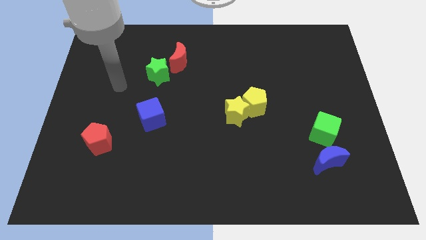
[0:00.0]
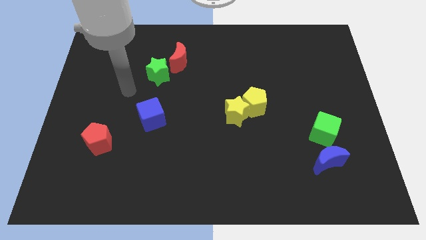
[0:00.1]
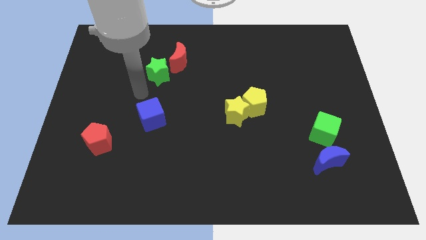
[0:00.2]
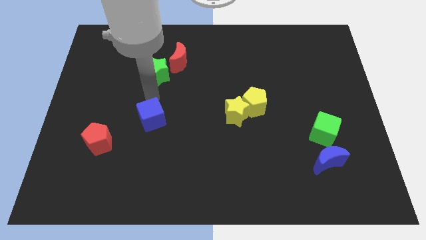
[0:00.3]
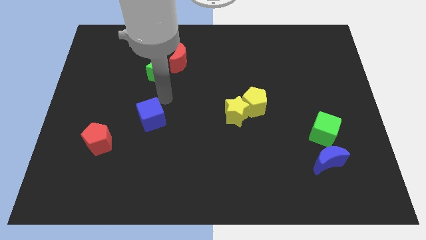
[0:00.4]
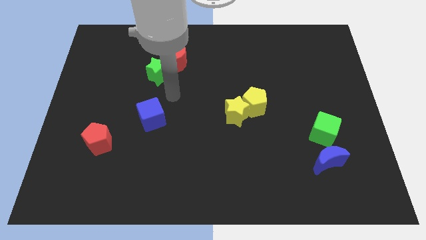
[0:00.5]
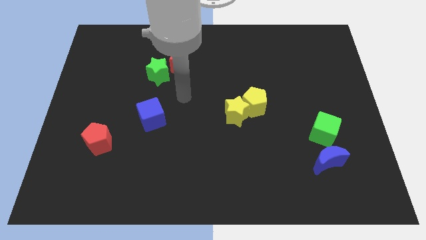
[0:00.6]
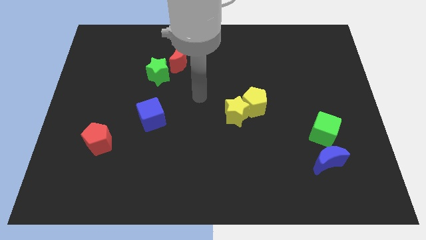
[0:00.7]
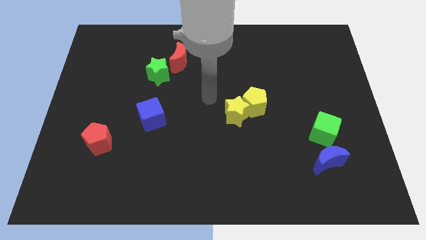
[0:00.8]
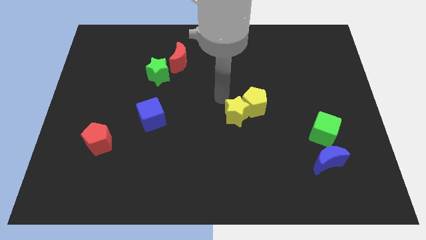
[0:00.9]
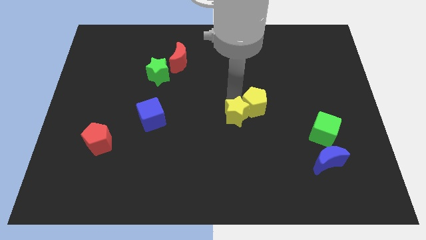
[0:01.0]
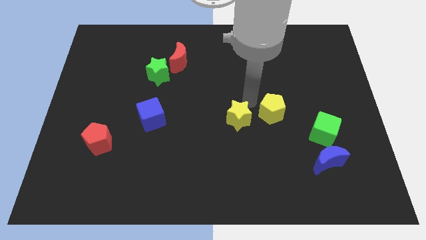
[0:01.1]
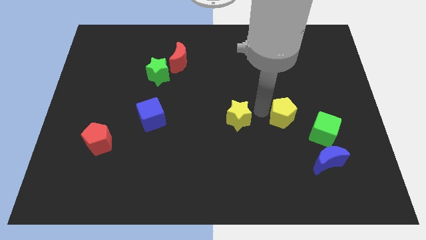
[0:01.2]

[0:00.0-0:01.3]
pull the yellow star apart from the yellow pentagon

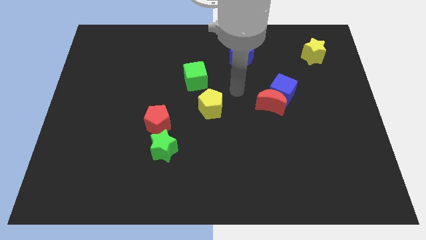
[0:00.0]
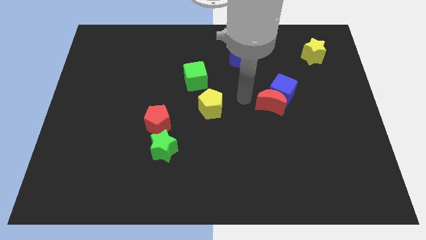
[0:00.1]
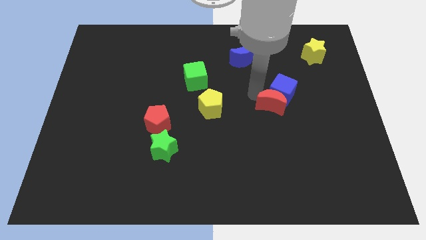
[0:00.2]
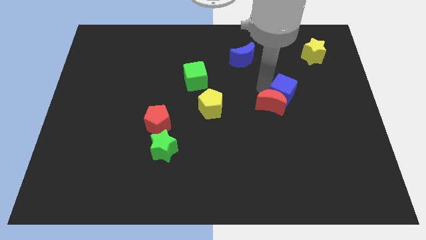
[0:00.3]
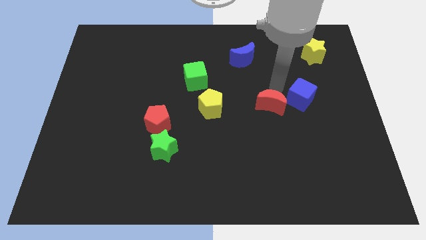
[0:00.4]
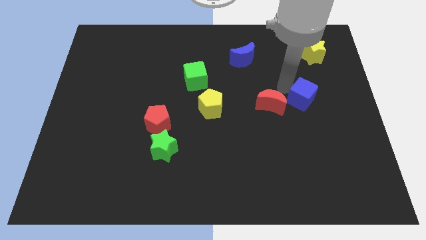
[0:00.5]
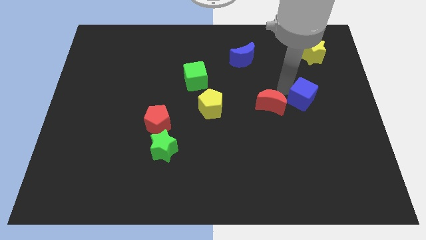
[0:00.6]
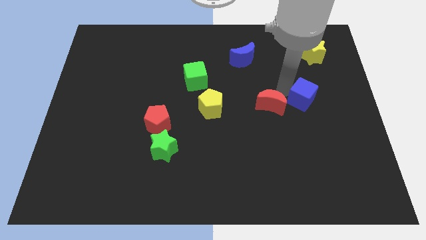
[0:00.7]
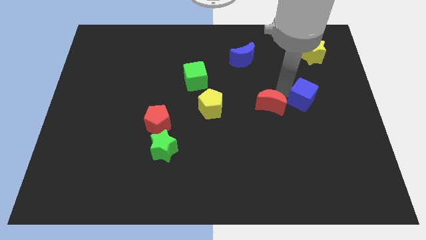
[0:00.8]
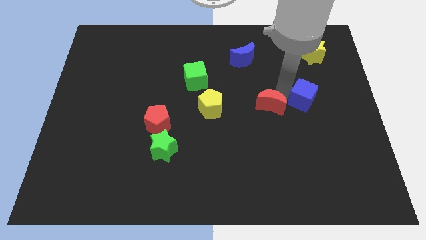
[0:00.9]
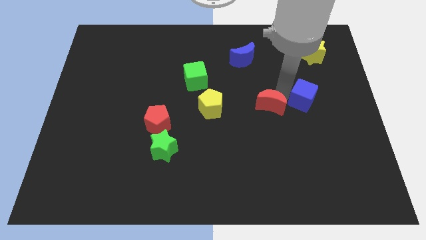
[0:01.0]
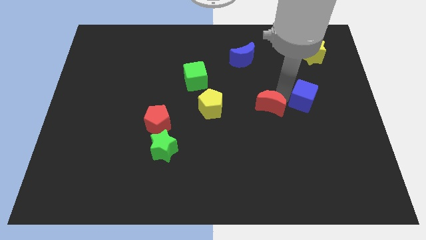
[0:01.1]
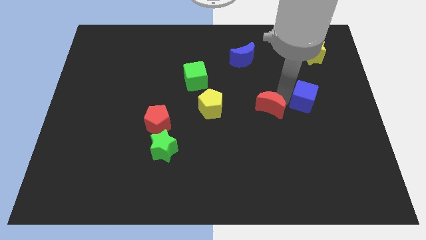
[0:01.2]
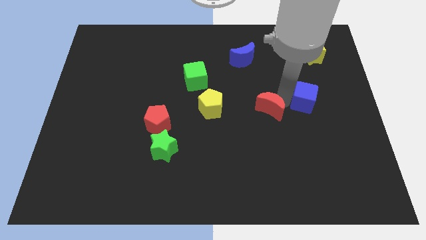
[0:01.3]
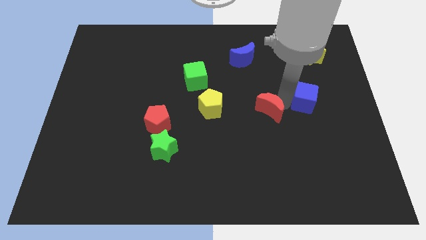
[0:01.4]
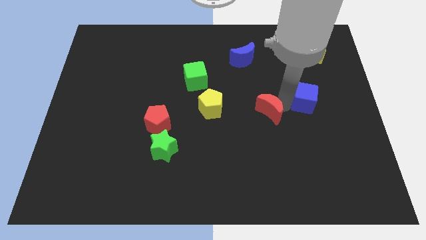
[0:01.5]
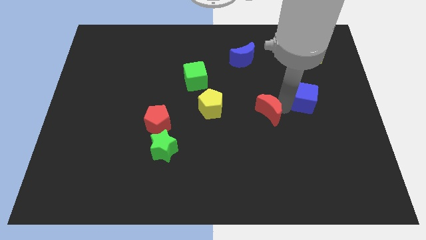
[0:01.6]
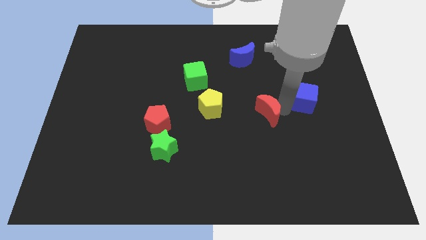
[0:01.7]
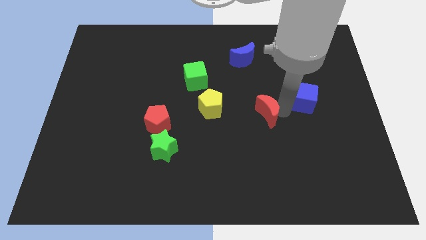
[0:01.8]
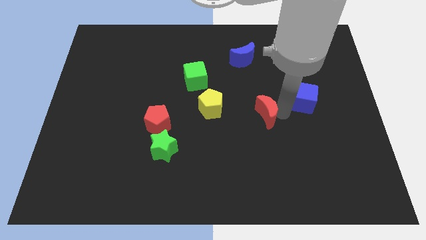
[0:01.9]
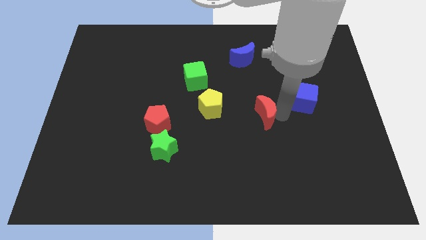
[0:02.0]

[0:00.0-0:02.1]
separate the red moon from the blue cube

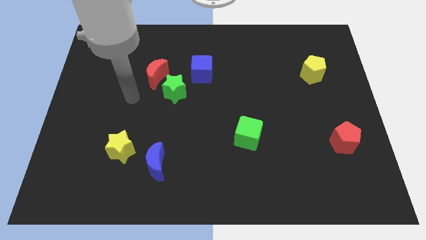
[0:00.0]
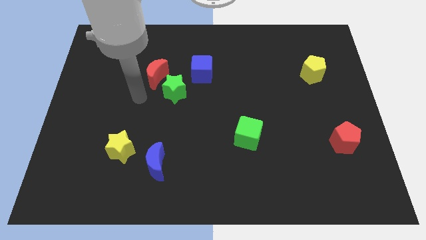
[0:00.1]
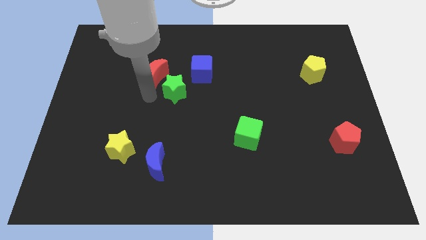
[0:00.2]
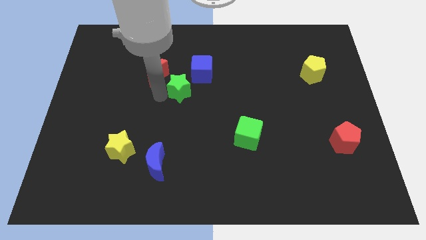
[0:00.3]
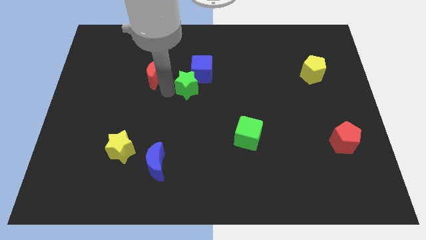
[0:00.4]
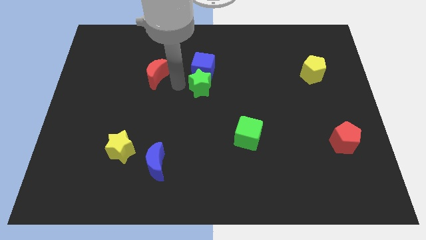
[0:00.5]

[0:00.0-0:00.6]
move the red moon away from the green star

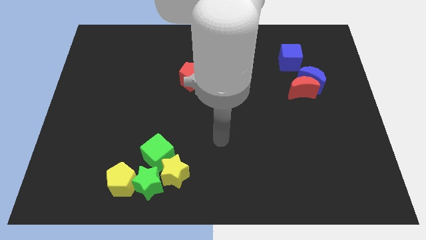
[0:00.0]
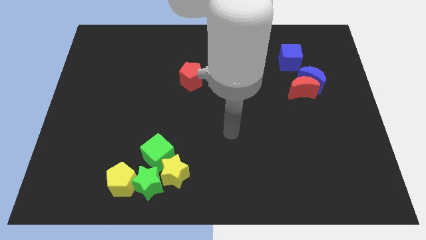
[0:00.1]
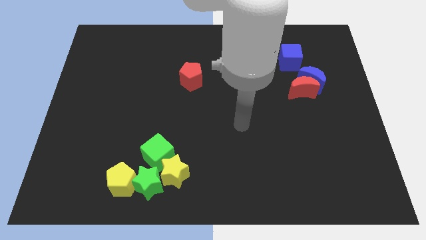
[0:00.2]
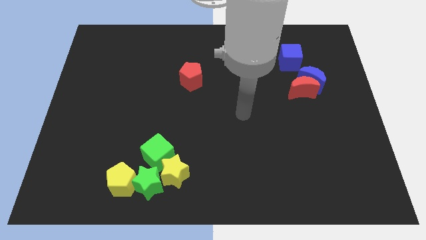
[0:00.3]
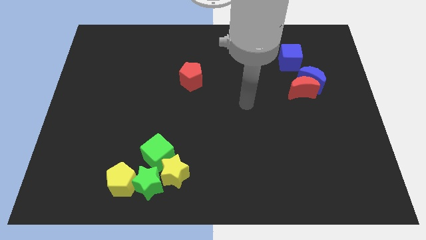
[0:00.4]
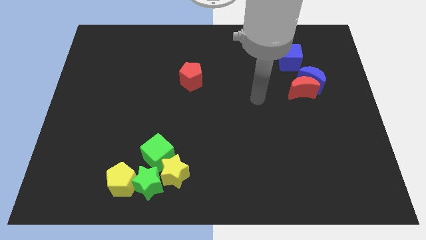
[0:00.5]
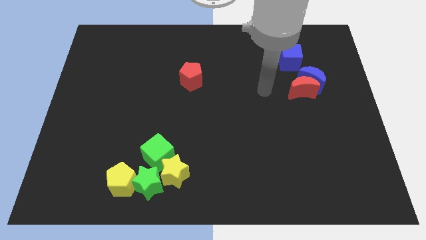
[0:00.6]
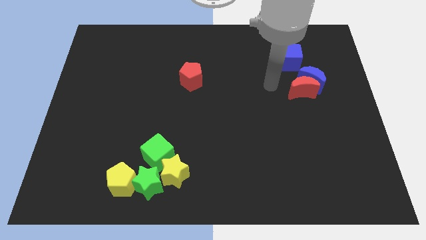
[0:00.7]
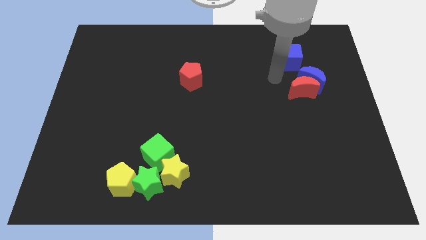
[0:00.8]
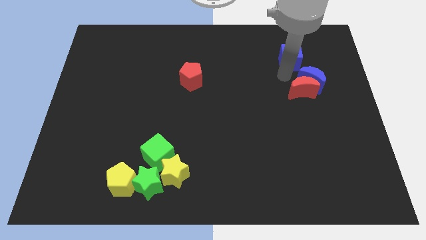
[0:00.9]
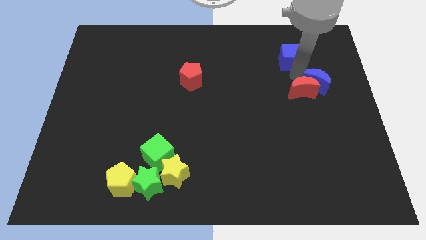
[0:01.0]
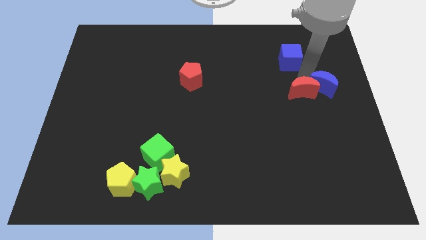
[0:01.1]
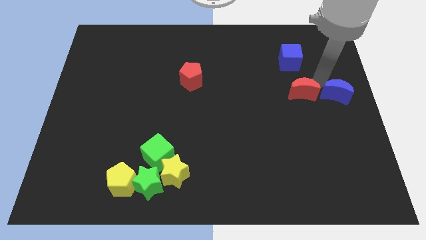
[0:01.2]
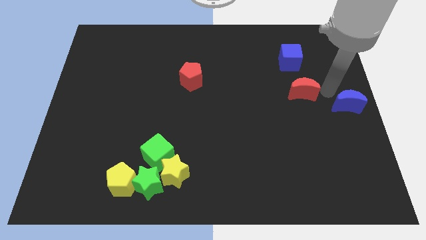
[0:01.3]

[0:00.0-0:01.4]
separate the red moon from the blue moon

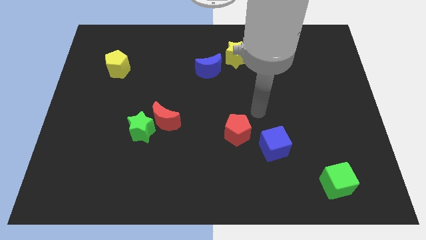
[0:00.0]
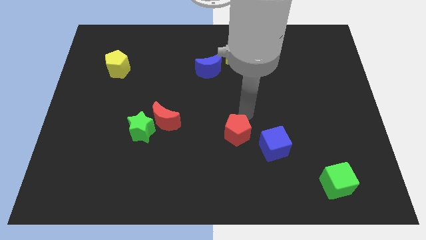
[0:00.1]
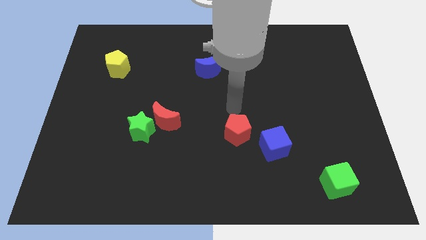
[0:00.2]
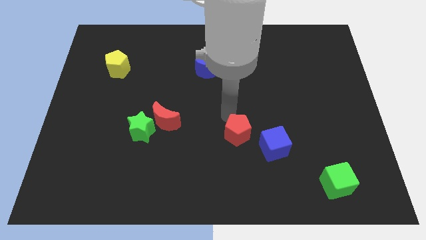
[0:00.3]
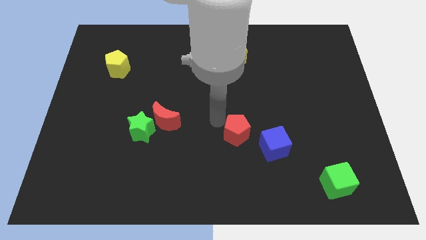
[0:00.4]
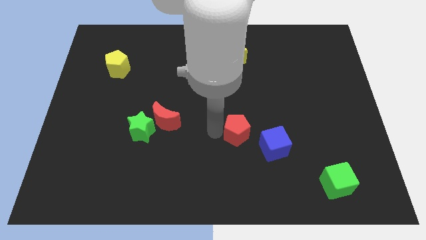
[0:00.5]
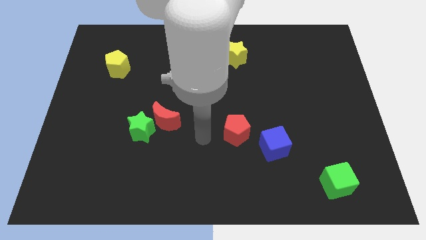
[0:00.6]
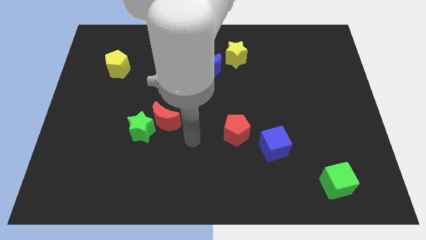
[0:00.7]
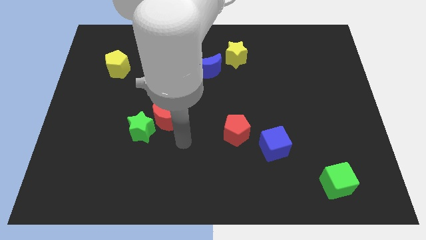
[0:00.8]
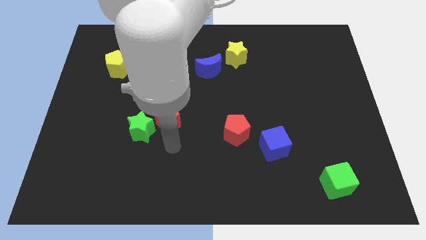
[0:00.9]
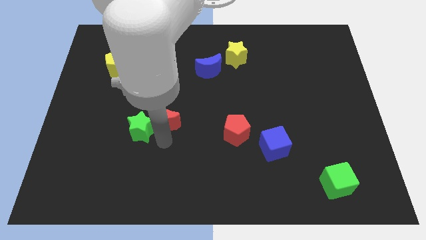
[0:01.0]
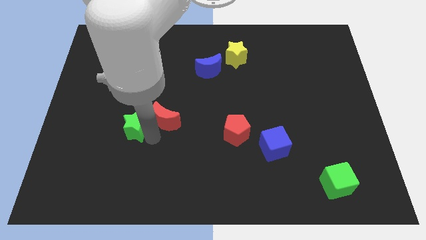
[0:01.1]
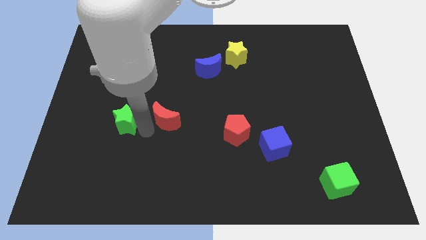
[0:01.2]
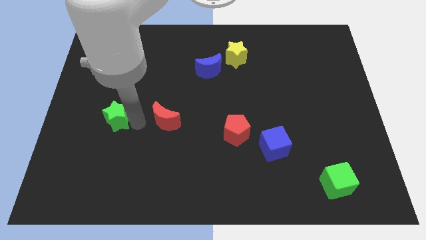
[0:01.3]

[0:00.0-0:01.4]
separate the red moon from the green star

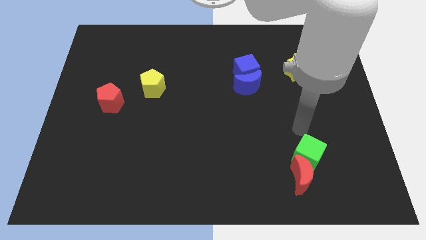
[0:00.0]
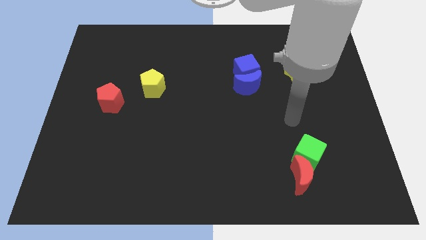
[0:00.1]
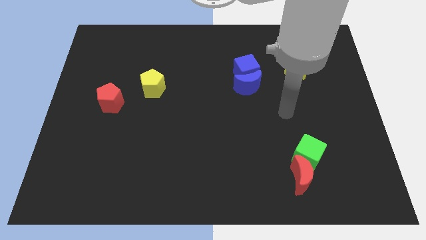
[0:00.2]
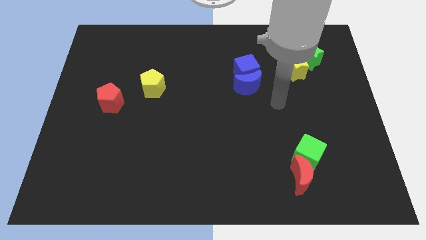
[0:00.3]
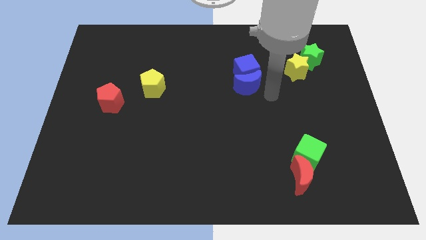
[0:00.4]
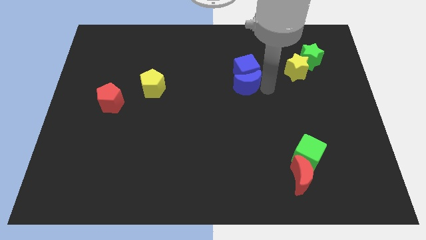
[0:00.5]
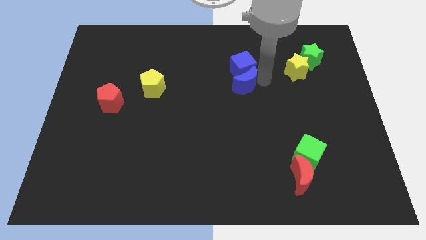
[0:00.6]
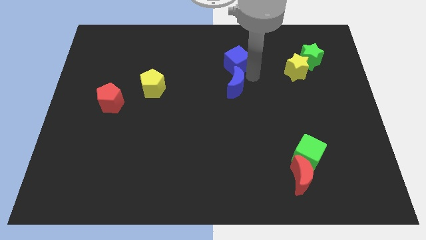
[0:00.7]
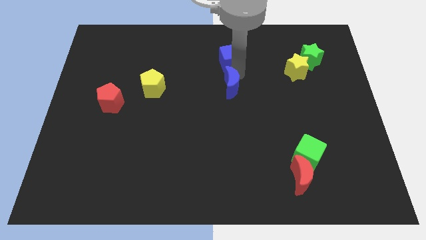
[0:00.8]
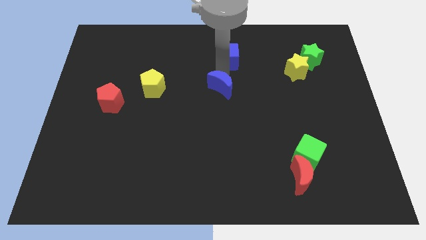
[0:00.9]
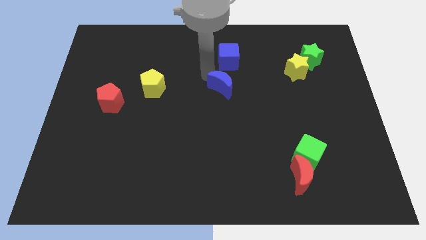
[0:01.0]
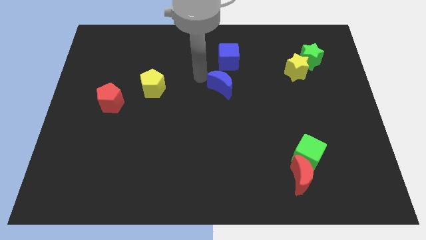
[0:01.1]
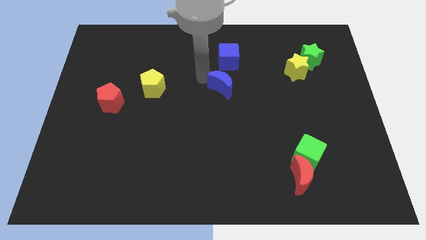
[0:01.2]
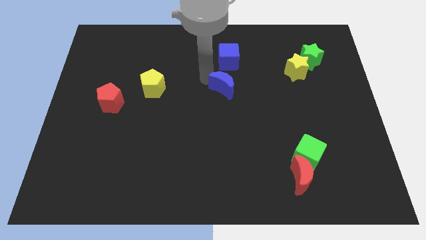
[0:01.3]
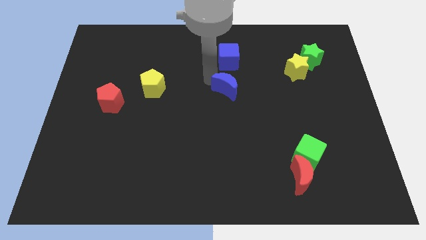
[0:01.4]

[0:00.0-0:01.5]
separate the blue moon from the blue cube

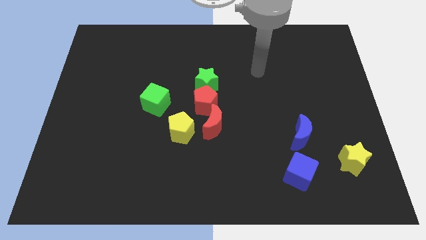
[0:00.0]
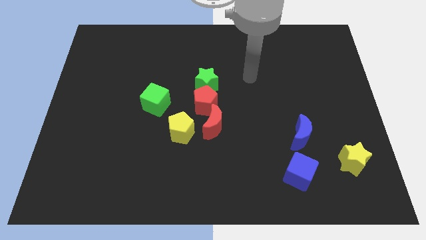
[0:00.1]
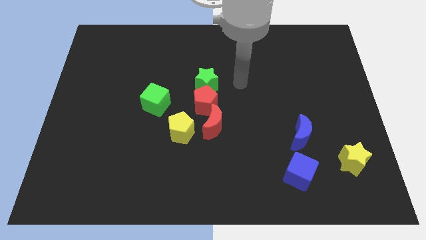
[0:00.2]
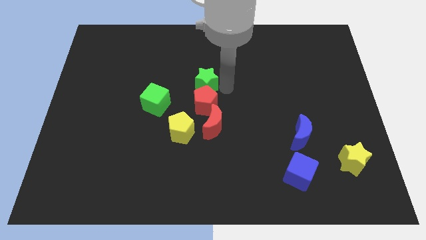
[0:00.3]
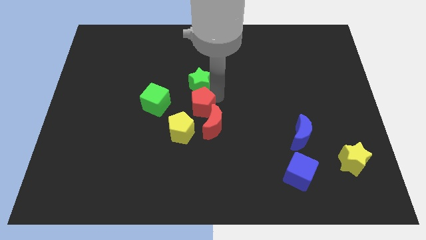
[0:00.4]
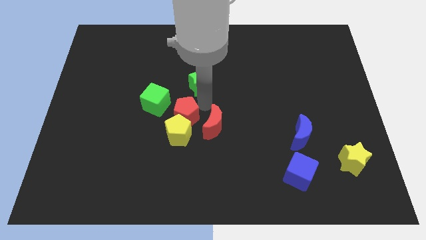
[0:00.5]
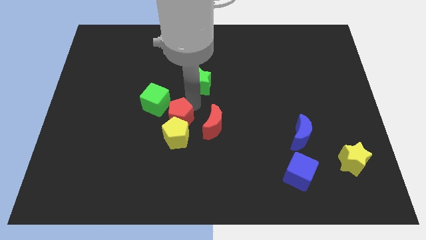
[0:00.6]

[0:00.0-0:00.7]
pull the green star apart from the red pentagon

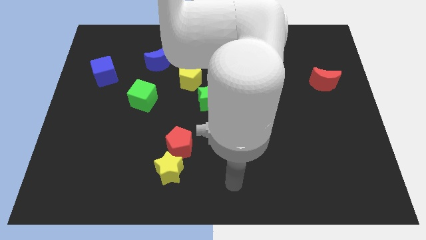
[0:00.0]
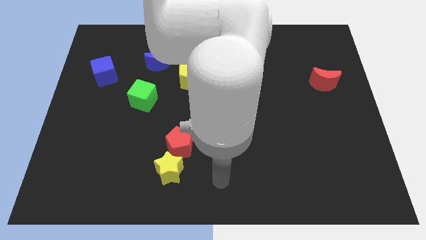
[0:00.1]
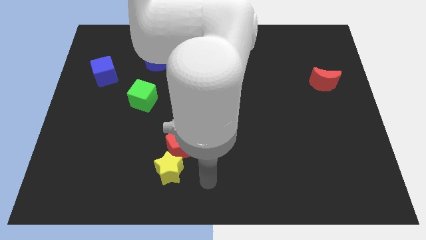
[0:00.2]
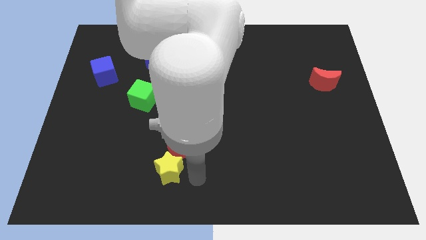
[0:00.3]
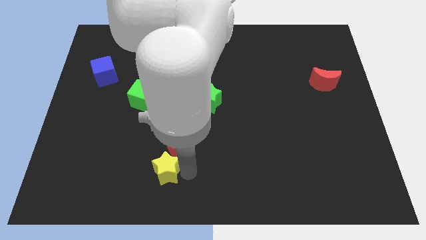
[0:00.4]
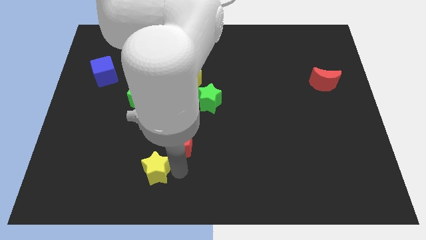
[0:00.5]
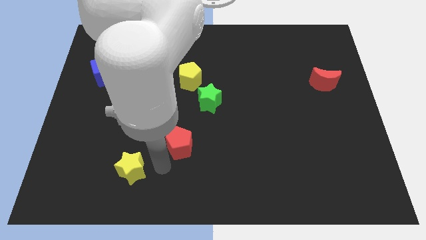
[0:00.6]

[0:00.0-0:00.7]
pull the red pentagon apart from the yellow star
